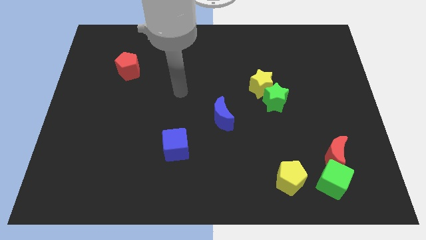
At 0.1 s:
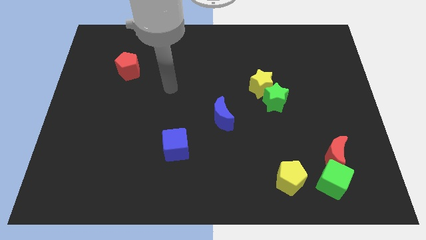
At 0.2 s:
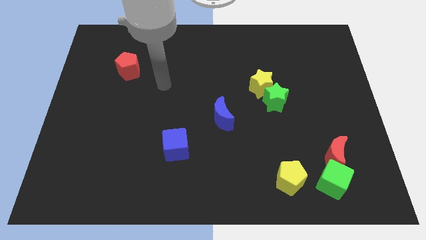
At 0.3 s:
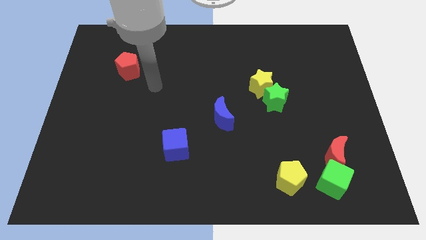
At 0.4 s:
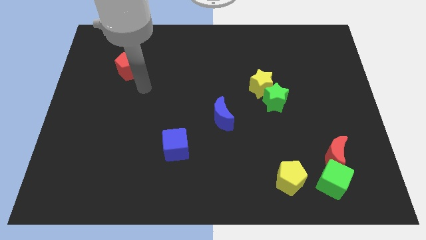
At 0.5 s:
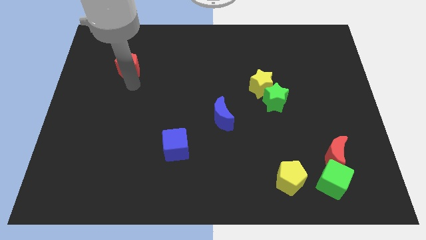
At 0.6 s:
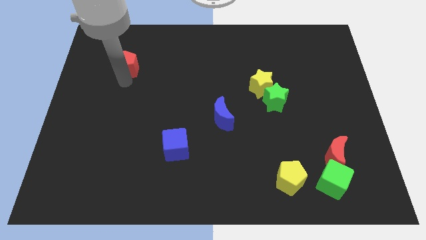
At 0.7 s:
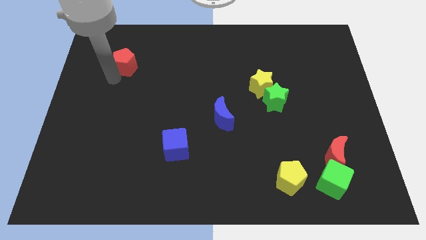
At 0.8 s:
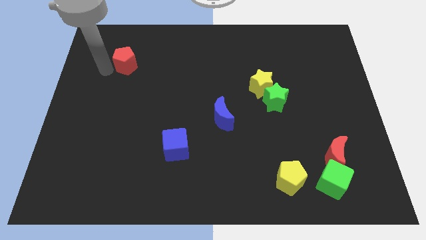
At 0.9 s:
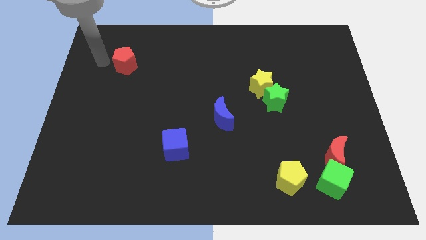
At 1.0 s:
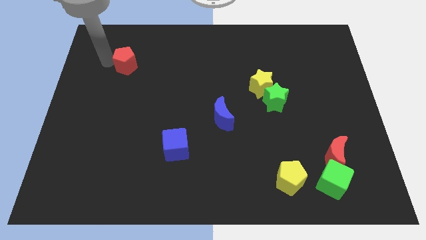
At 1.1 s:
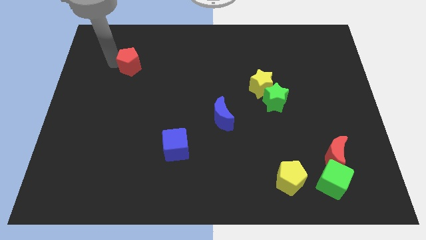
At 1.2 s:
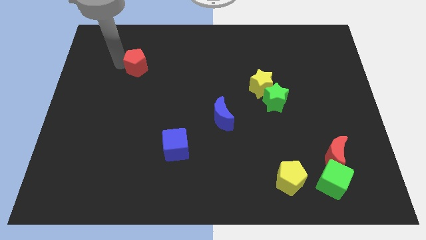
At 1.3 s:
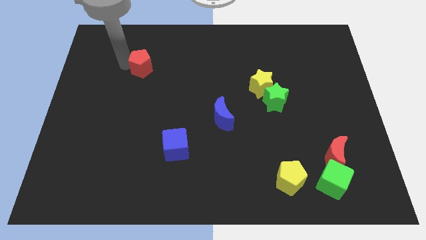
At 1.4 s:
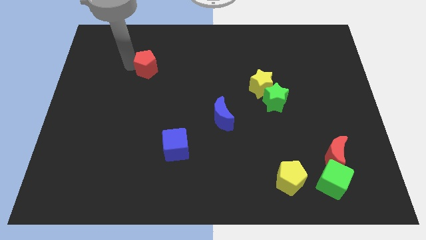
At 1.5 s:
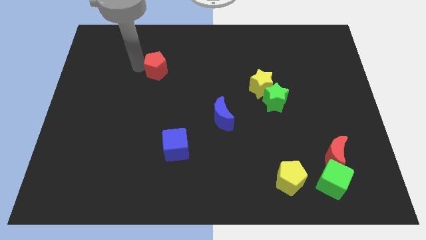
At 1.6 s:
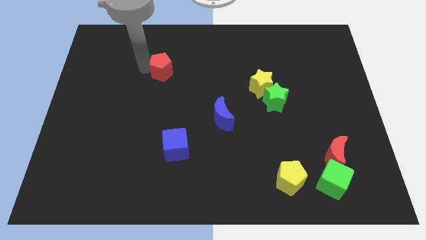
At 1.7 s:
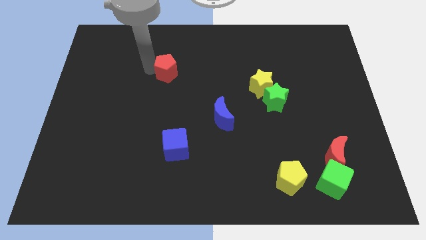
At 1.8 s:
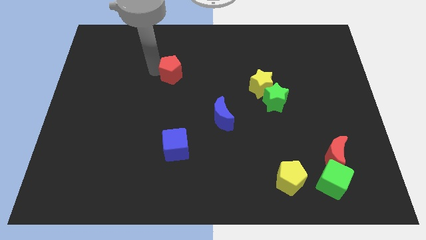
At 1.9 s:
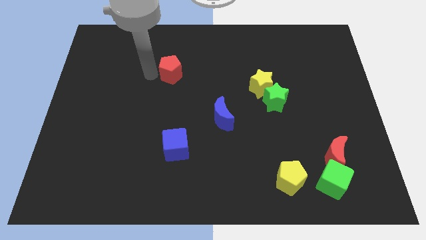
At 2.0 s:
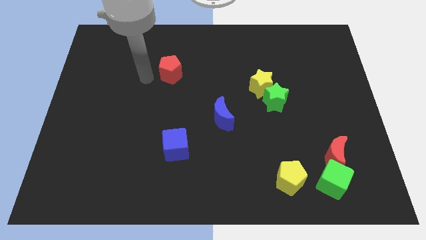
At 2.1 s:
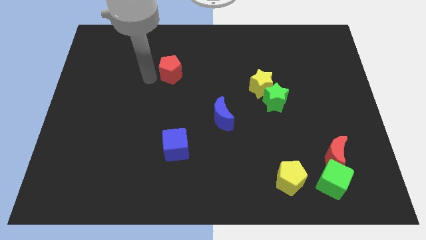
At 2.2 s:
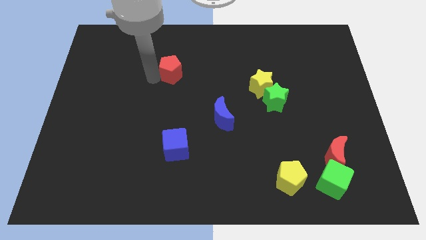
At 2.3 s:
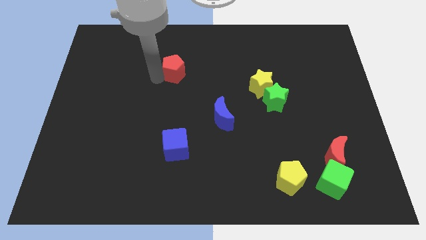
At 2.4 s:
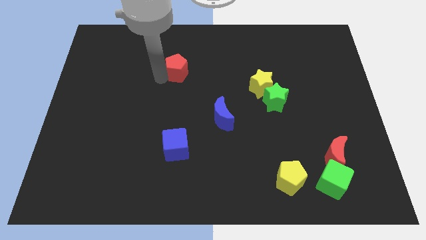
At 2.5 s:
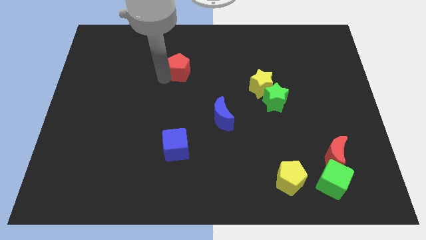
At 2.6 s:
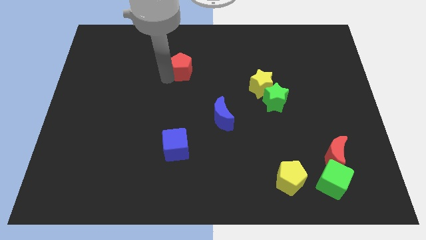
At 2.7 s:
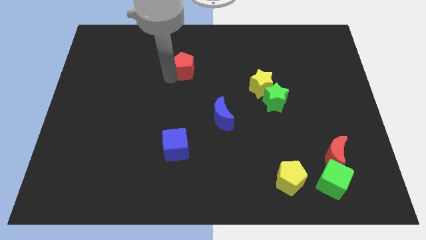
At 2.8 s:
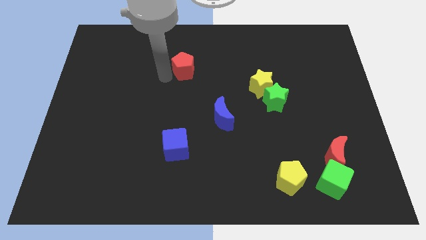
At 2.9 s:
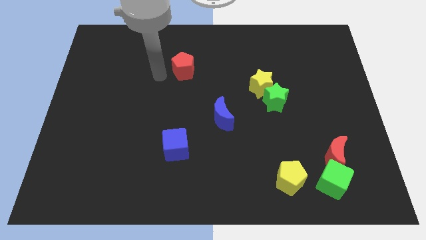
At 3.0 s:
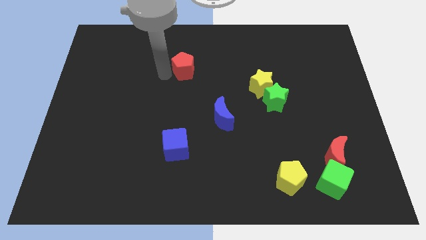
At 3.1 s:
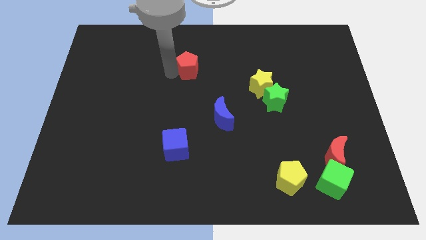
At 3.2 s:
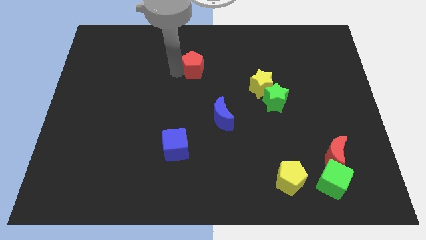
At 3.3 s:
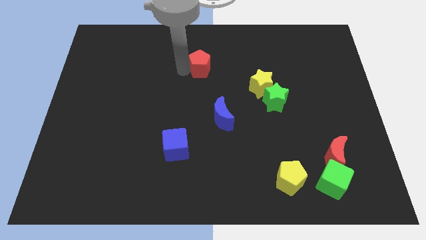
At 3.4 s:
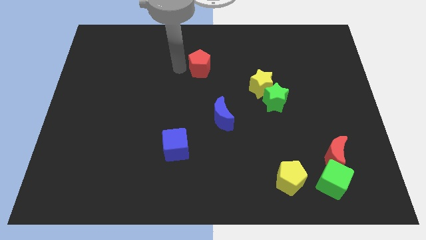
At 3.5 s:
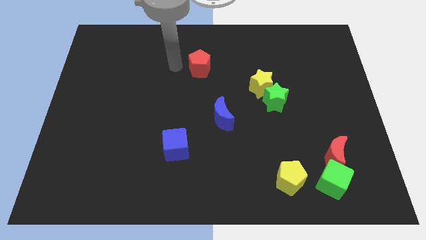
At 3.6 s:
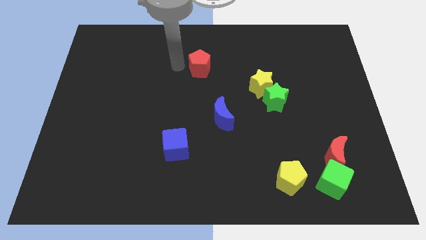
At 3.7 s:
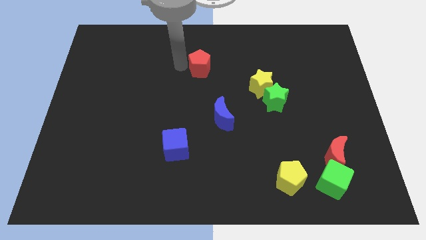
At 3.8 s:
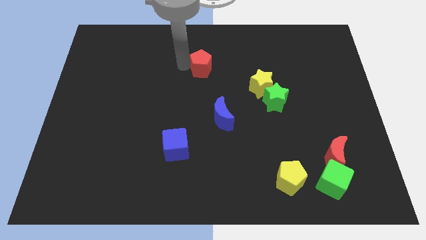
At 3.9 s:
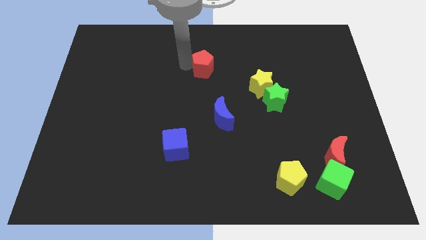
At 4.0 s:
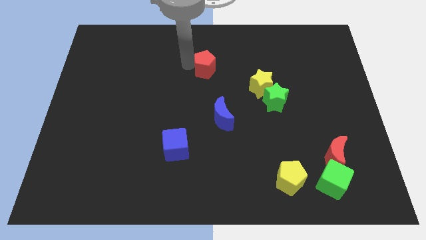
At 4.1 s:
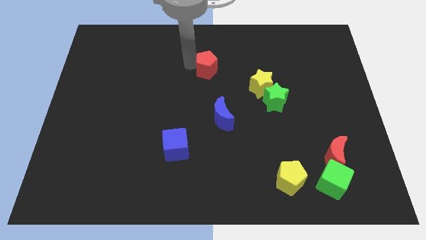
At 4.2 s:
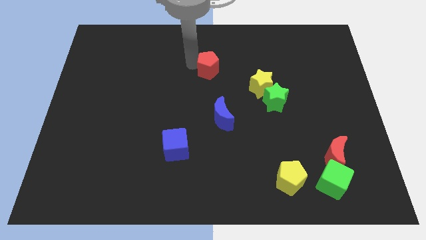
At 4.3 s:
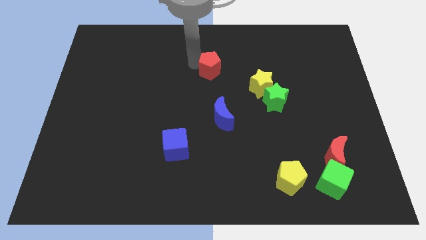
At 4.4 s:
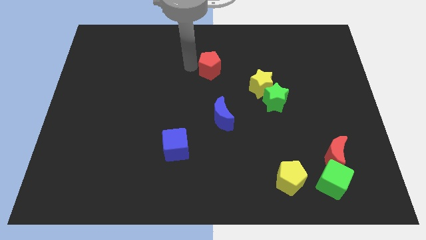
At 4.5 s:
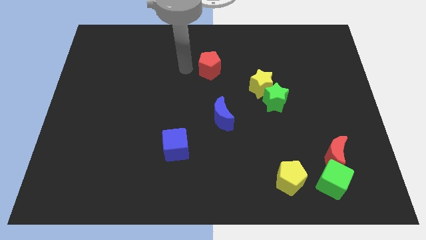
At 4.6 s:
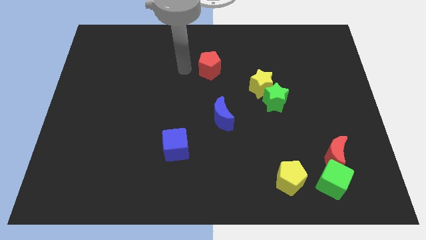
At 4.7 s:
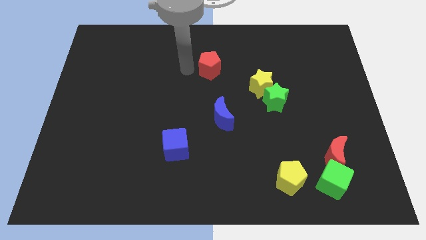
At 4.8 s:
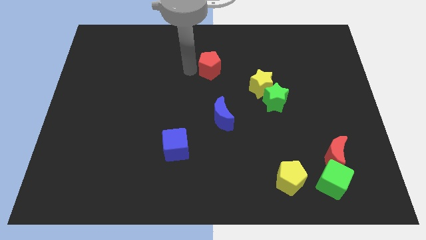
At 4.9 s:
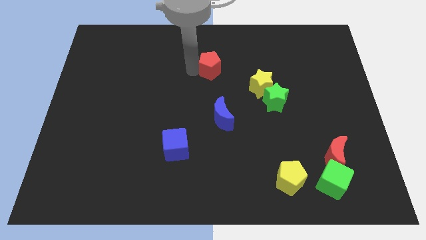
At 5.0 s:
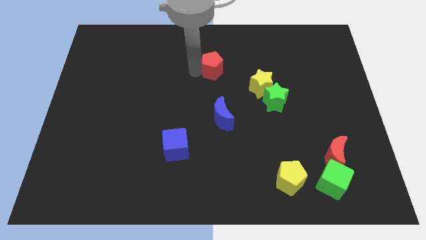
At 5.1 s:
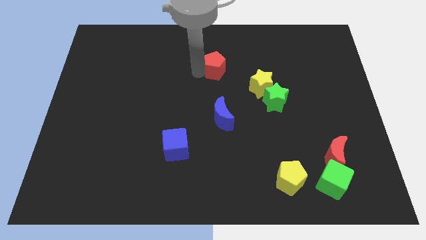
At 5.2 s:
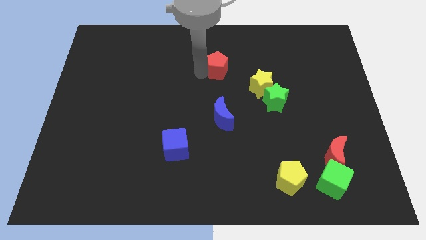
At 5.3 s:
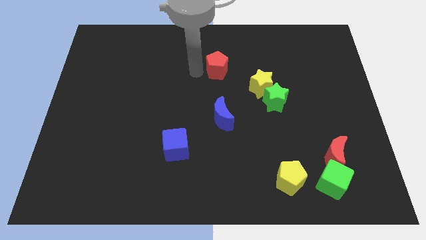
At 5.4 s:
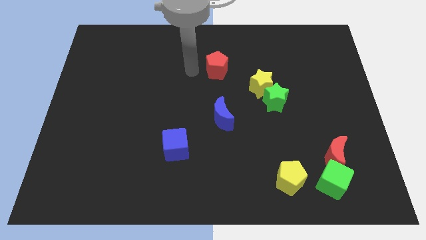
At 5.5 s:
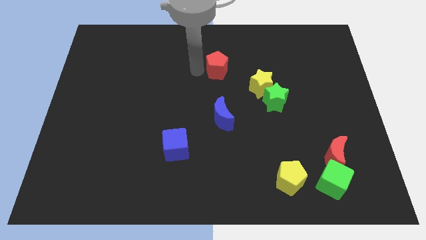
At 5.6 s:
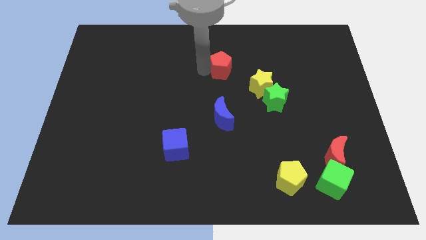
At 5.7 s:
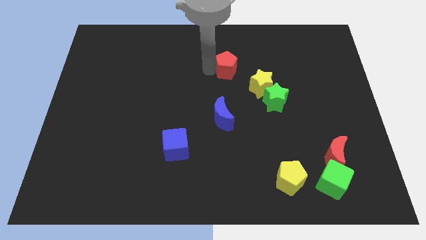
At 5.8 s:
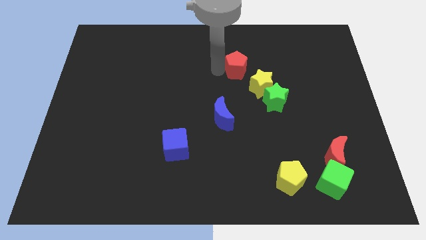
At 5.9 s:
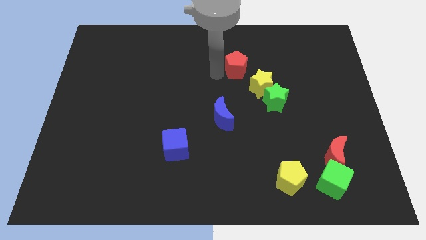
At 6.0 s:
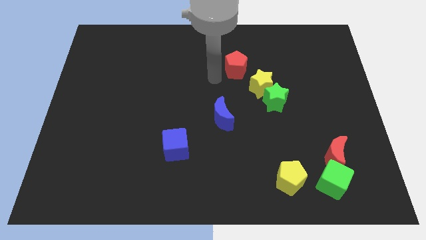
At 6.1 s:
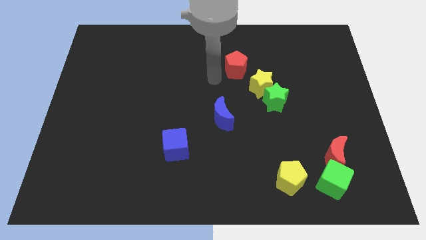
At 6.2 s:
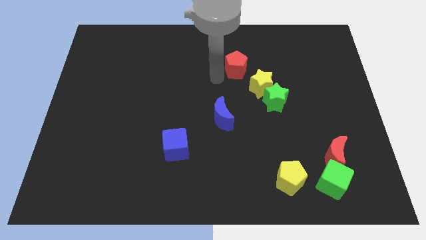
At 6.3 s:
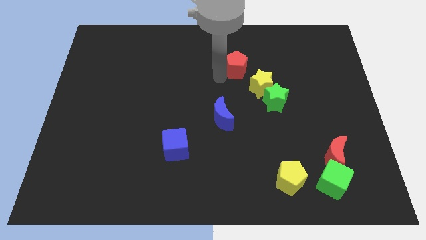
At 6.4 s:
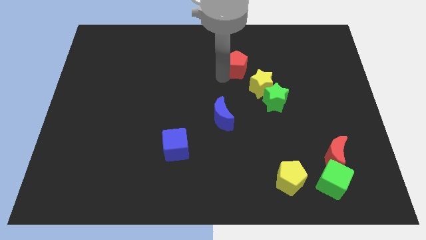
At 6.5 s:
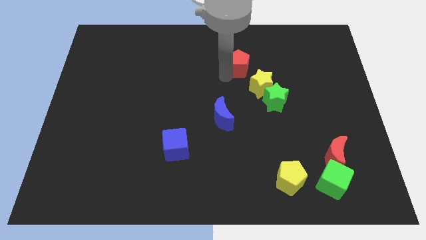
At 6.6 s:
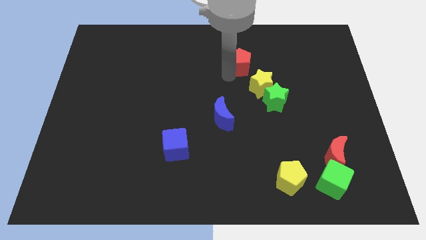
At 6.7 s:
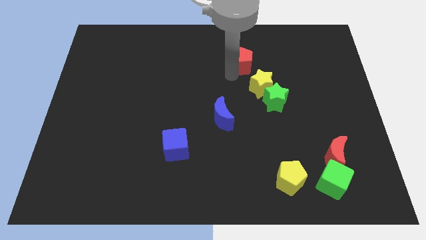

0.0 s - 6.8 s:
move the red pentagon to the top side of the yellow star

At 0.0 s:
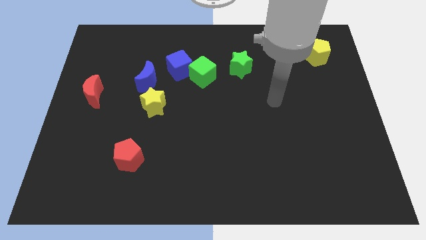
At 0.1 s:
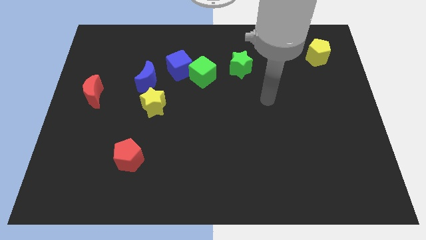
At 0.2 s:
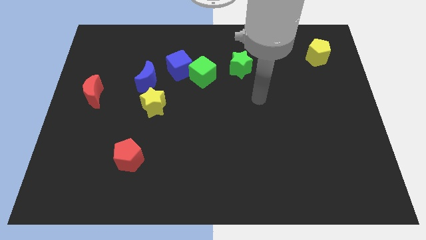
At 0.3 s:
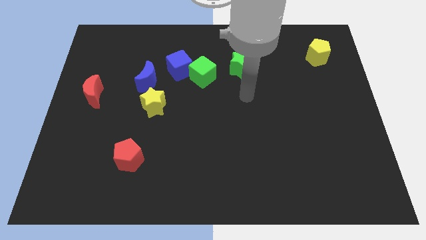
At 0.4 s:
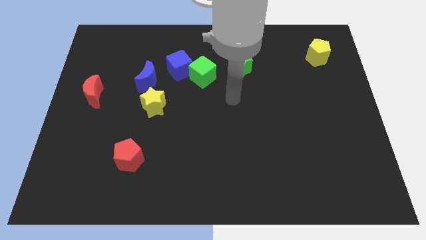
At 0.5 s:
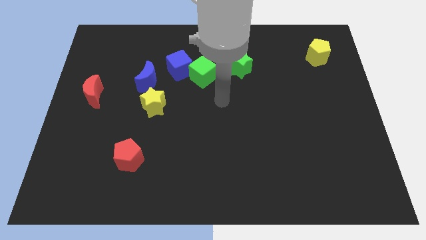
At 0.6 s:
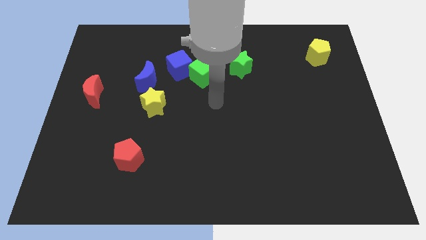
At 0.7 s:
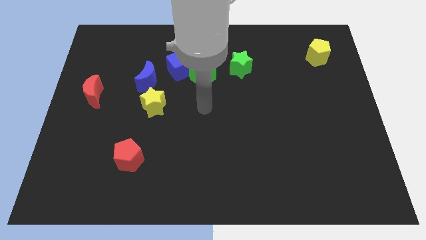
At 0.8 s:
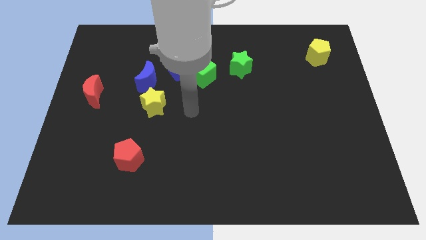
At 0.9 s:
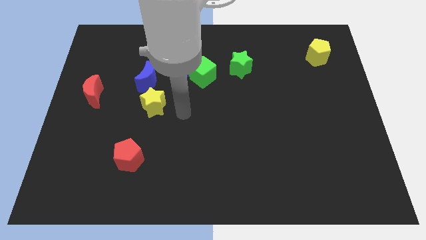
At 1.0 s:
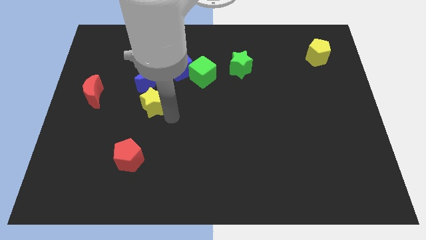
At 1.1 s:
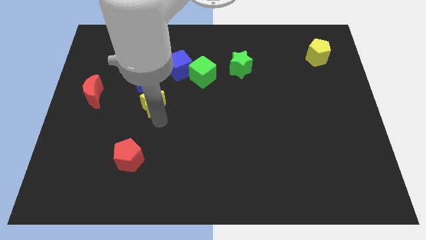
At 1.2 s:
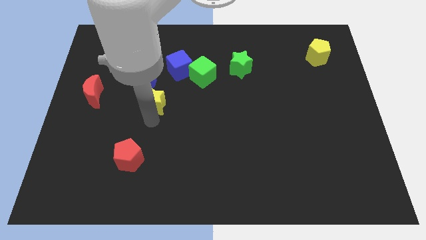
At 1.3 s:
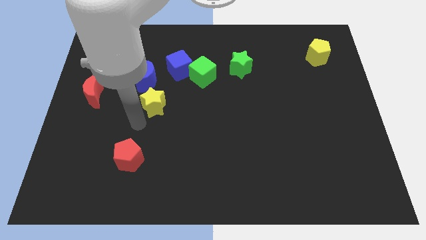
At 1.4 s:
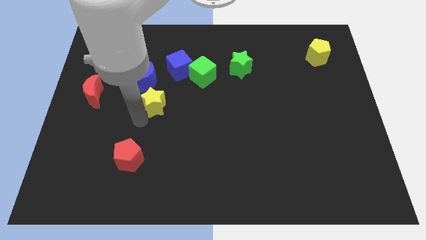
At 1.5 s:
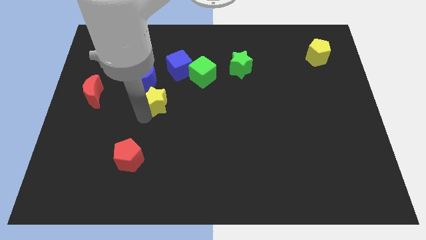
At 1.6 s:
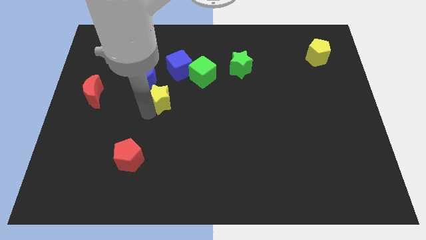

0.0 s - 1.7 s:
move the yellow star to the bottom left of the green cube
